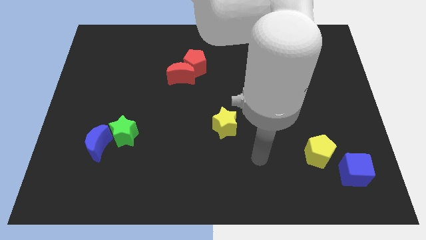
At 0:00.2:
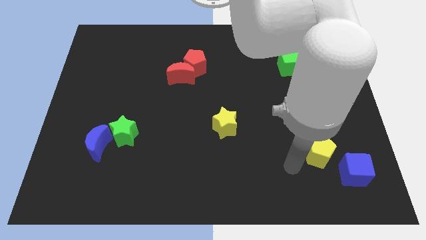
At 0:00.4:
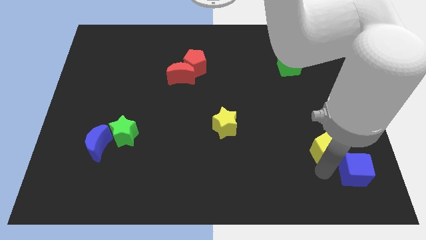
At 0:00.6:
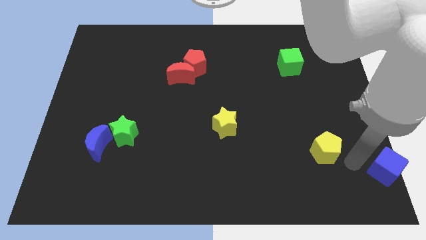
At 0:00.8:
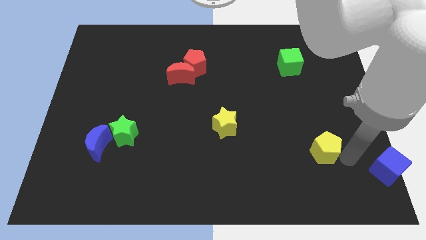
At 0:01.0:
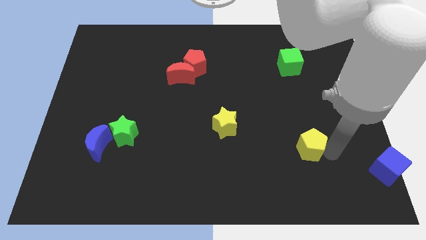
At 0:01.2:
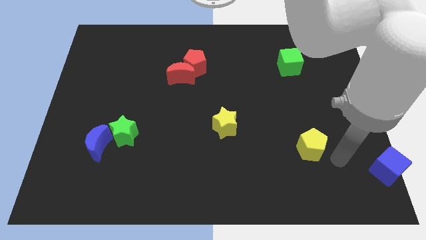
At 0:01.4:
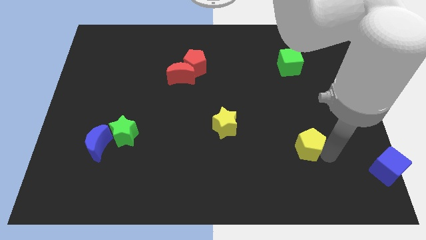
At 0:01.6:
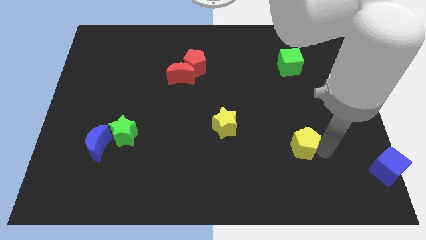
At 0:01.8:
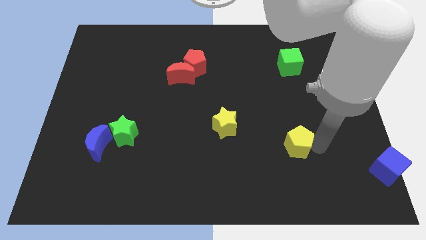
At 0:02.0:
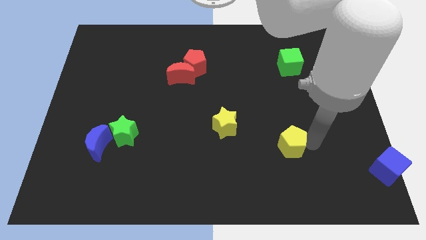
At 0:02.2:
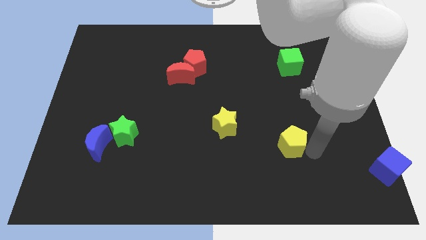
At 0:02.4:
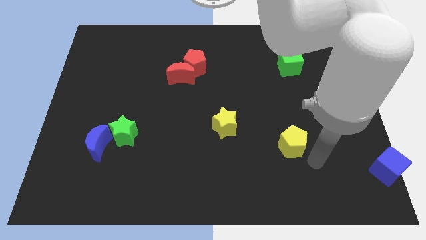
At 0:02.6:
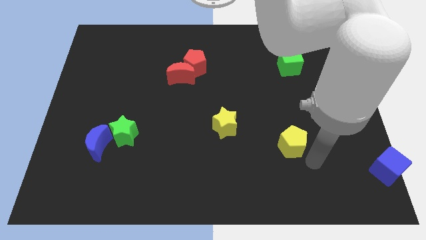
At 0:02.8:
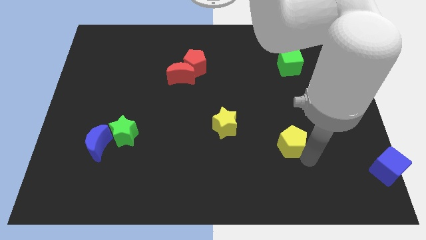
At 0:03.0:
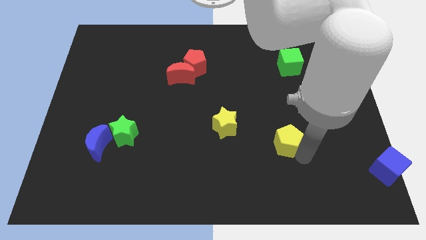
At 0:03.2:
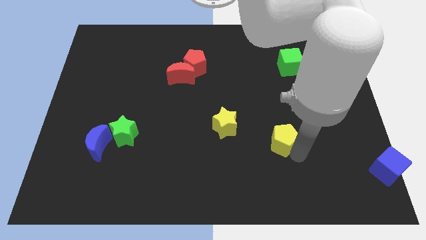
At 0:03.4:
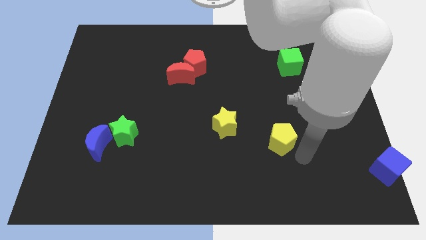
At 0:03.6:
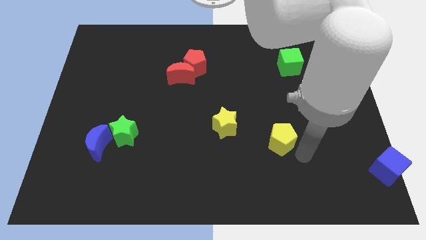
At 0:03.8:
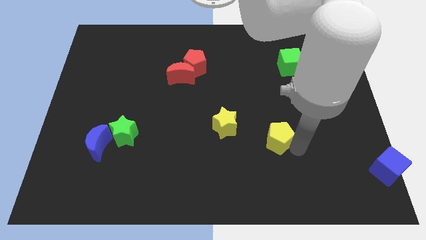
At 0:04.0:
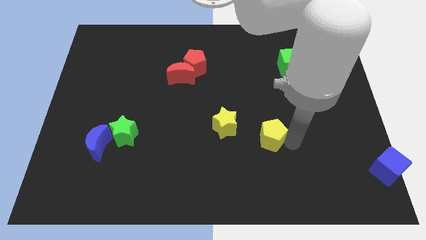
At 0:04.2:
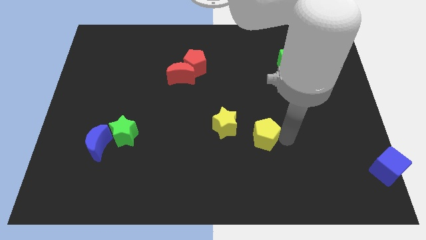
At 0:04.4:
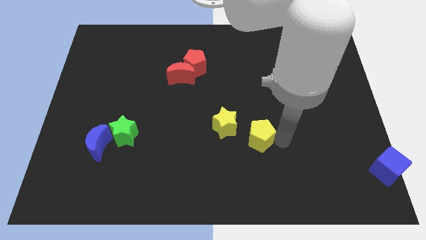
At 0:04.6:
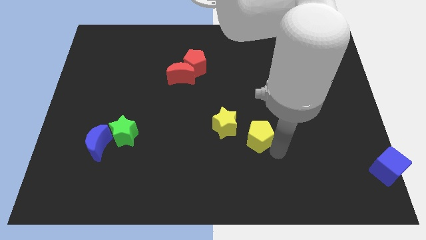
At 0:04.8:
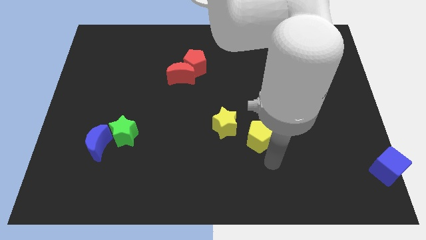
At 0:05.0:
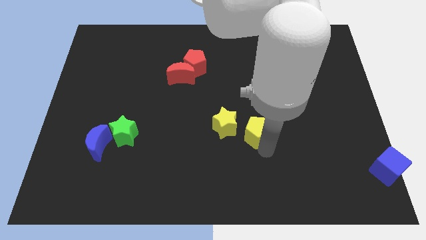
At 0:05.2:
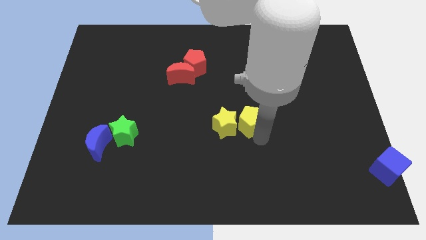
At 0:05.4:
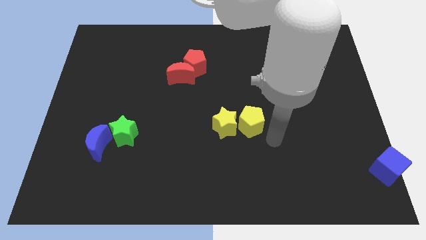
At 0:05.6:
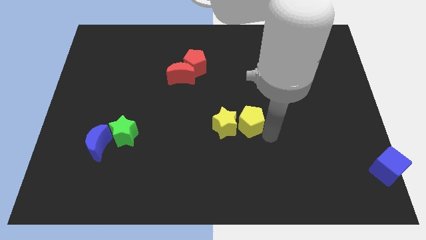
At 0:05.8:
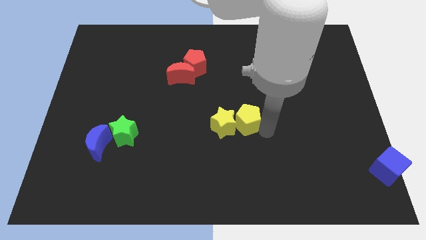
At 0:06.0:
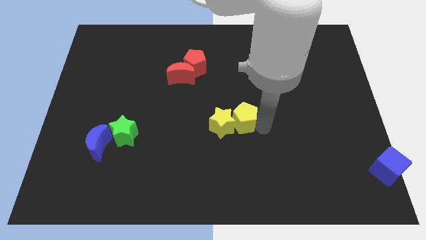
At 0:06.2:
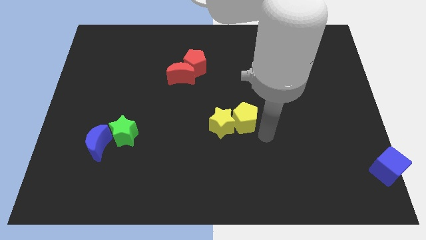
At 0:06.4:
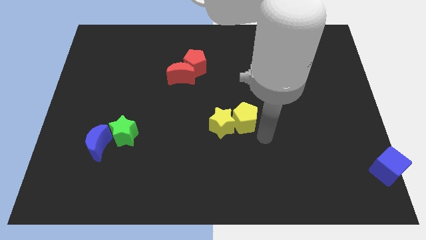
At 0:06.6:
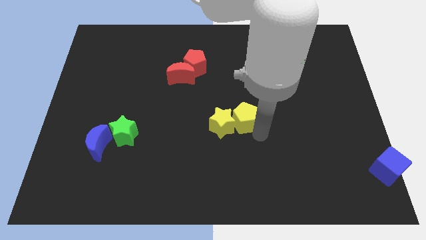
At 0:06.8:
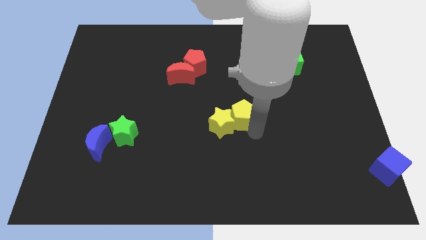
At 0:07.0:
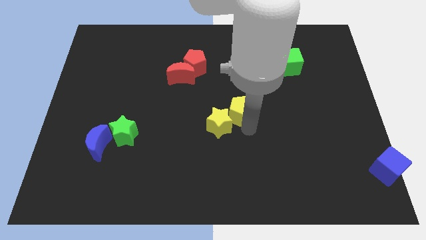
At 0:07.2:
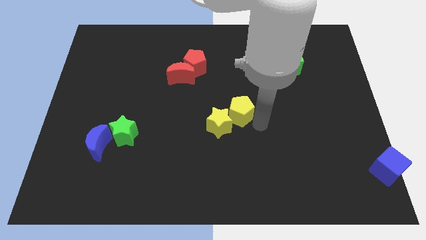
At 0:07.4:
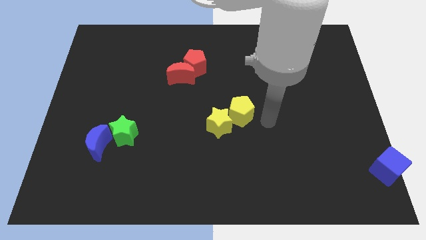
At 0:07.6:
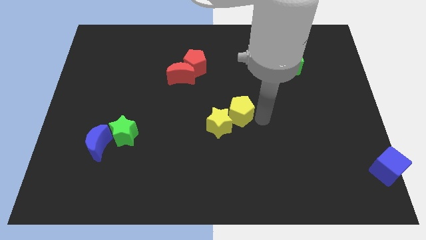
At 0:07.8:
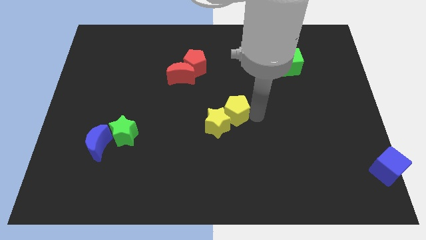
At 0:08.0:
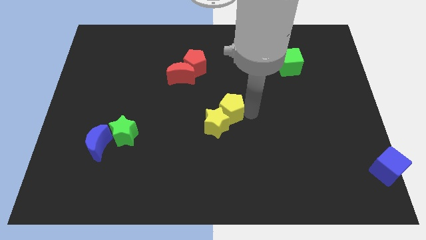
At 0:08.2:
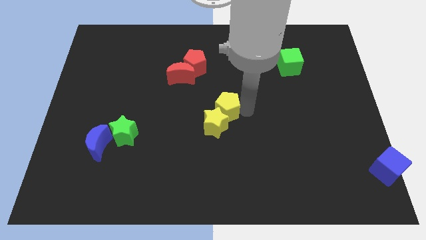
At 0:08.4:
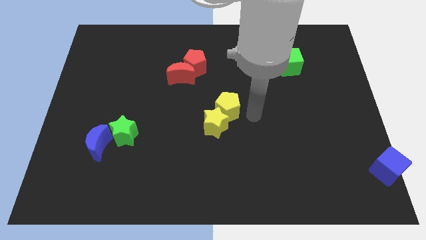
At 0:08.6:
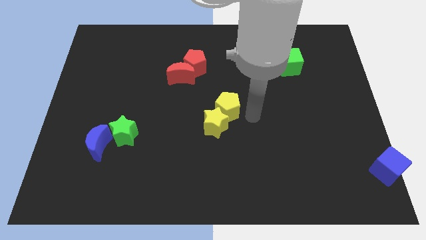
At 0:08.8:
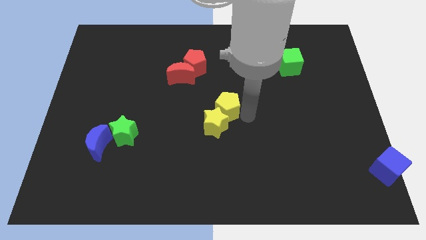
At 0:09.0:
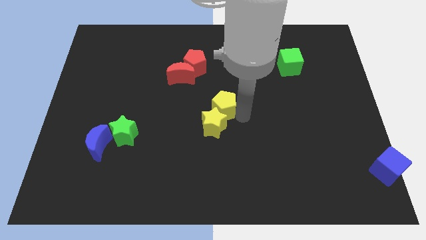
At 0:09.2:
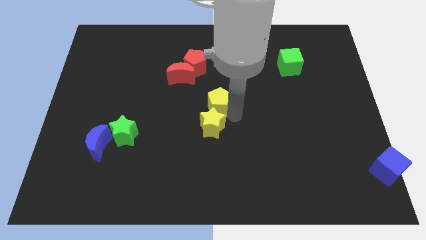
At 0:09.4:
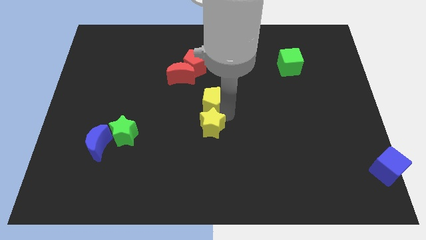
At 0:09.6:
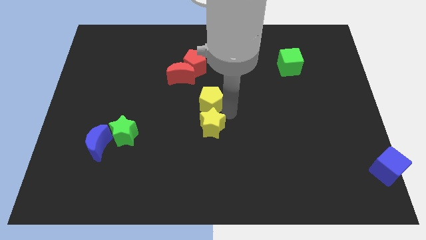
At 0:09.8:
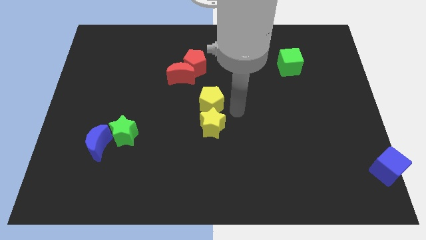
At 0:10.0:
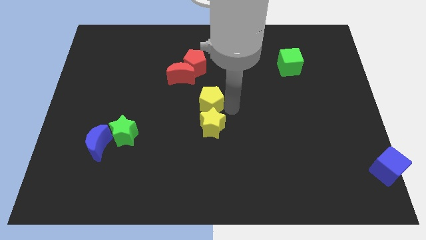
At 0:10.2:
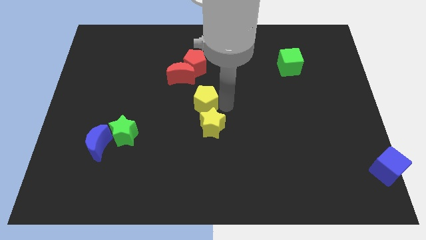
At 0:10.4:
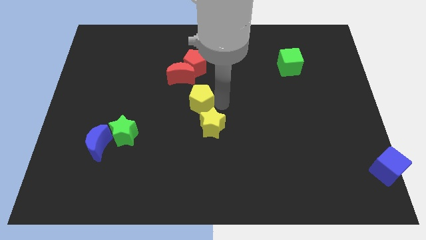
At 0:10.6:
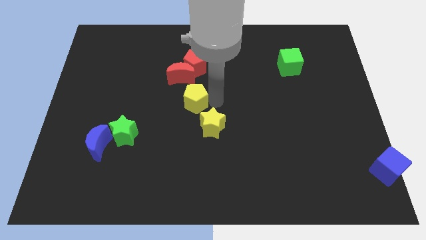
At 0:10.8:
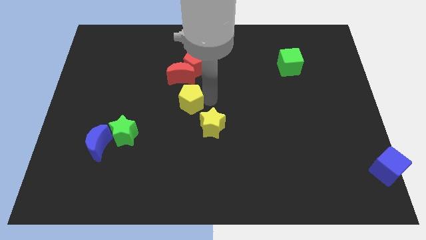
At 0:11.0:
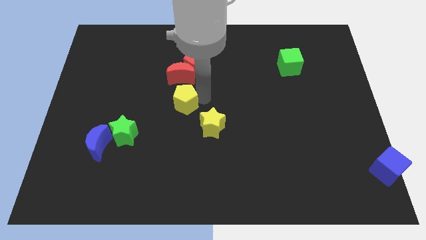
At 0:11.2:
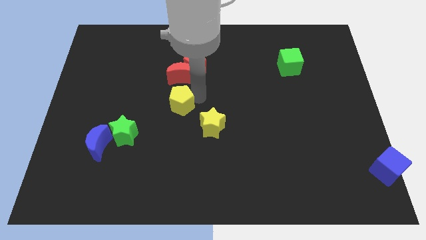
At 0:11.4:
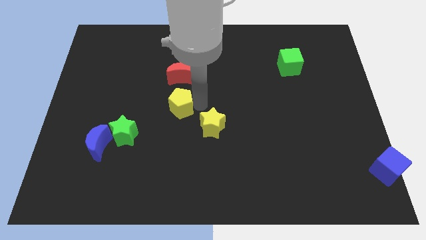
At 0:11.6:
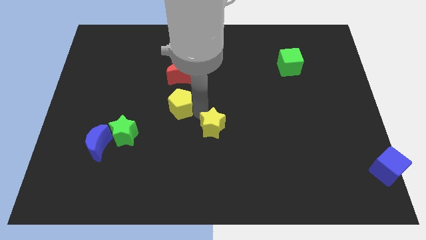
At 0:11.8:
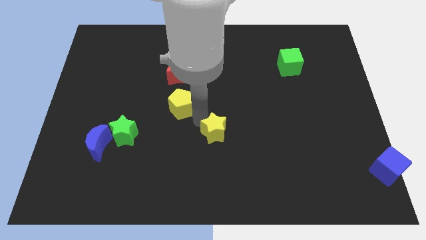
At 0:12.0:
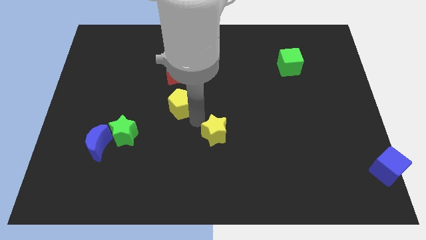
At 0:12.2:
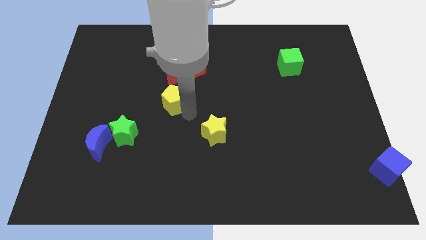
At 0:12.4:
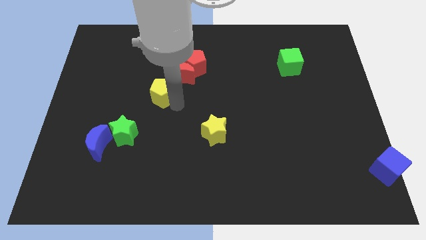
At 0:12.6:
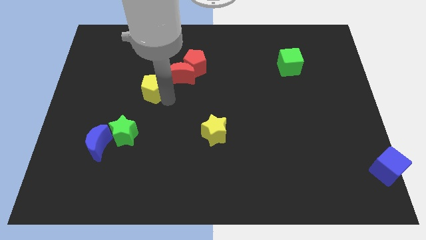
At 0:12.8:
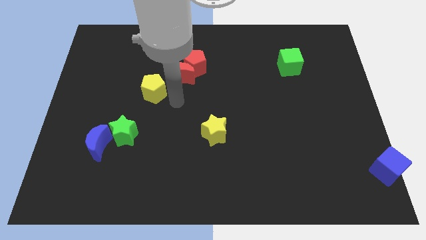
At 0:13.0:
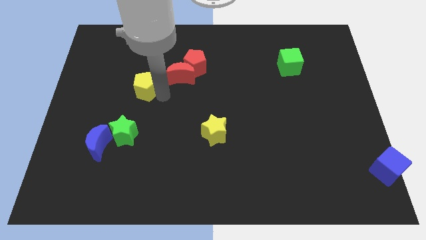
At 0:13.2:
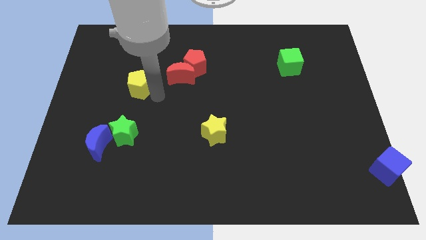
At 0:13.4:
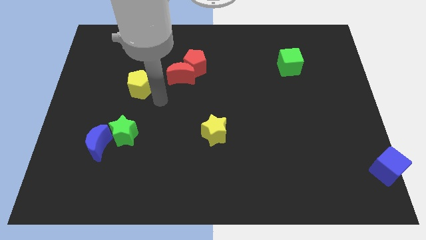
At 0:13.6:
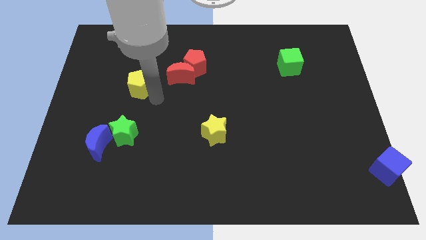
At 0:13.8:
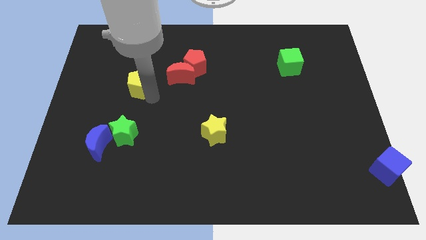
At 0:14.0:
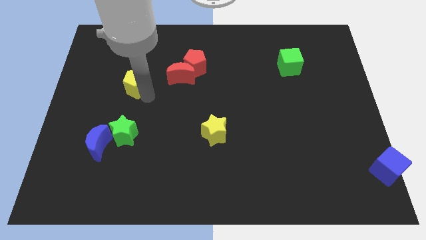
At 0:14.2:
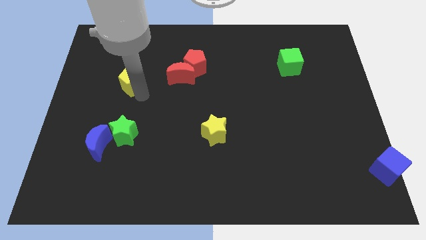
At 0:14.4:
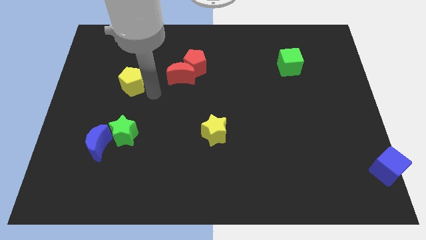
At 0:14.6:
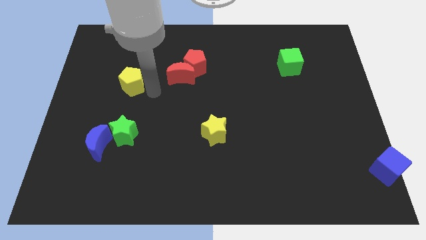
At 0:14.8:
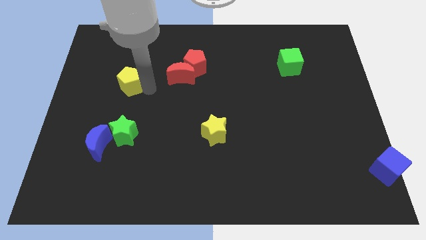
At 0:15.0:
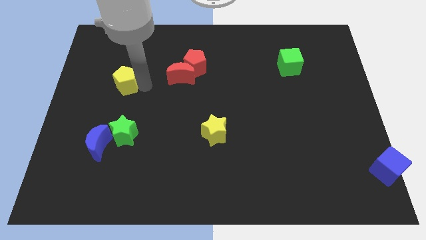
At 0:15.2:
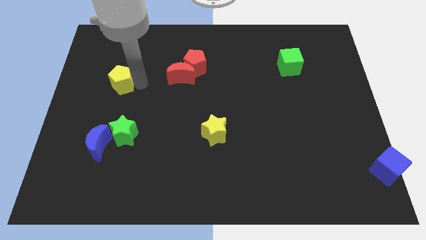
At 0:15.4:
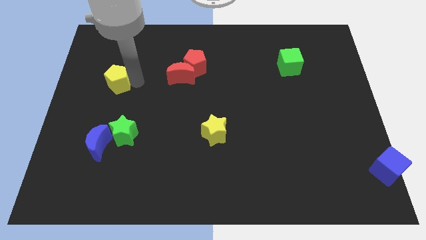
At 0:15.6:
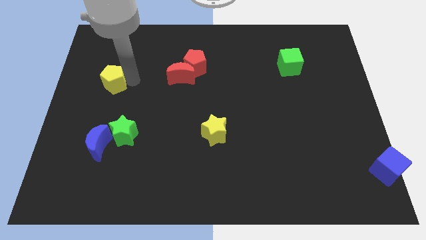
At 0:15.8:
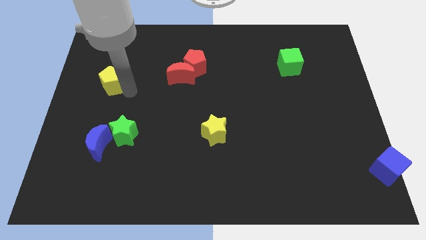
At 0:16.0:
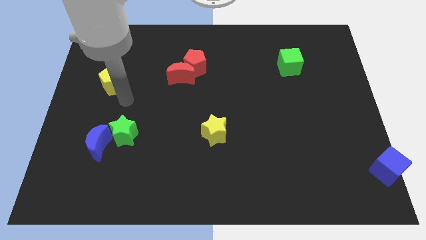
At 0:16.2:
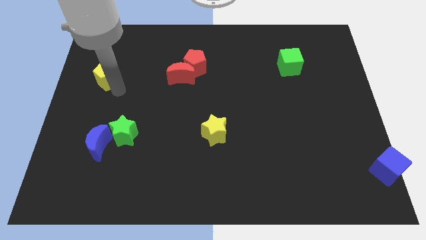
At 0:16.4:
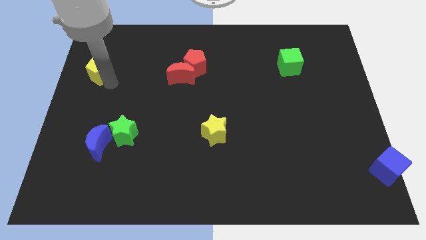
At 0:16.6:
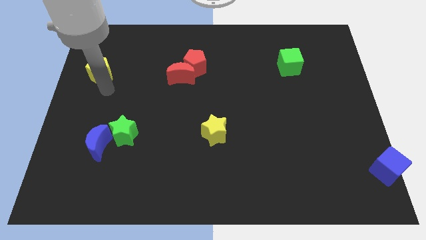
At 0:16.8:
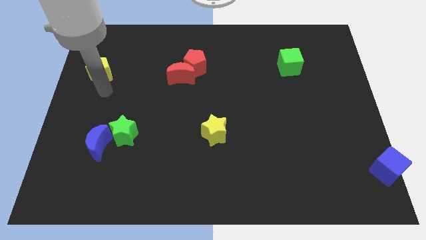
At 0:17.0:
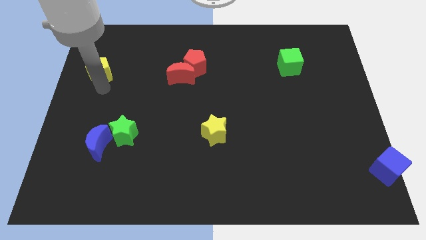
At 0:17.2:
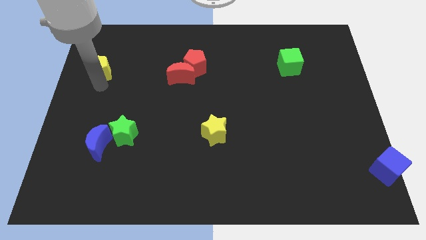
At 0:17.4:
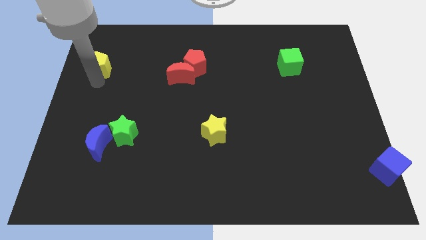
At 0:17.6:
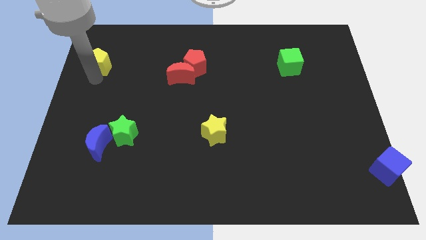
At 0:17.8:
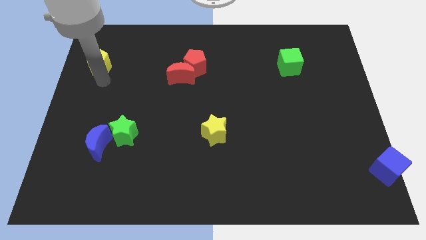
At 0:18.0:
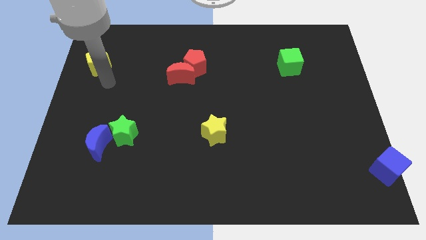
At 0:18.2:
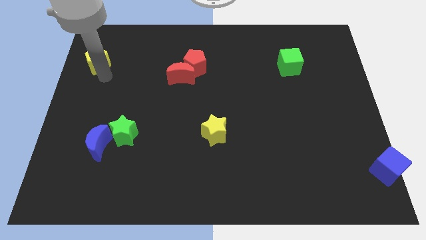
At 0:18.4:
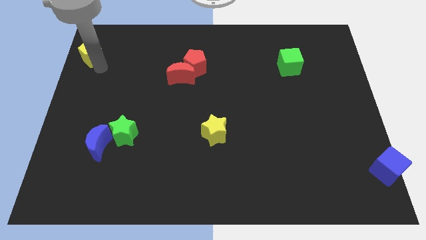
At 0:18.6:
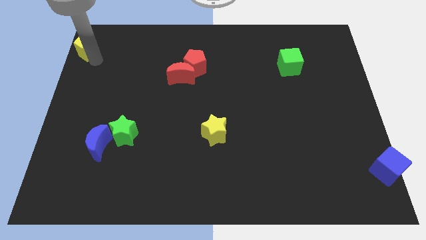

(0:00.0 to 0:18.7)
put the yellow pentagon to the upper left corner
